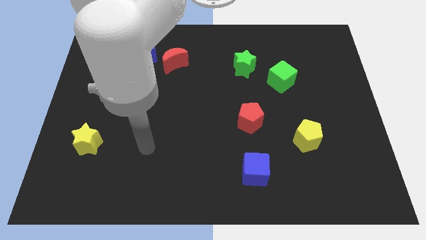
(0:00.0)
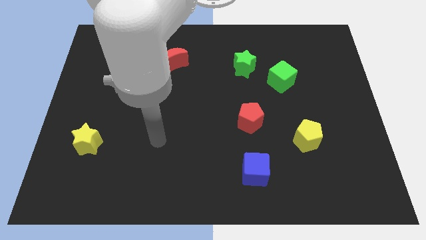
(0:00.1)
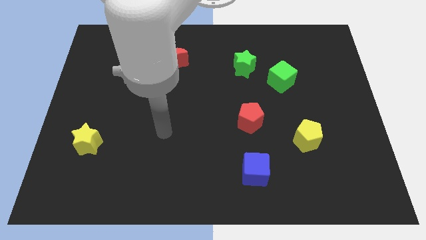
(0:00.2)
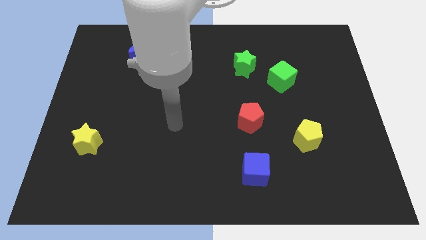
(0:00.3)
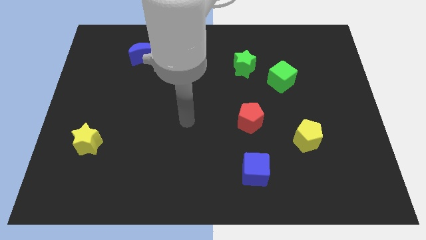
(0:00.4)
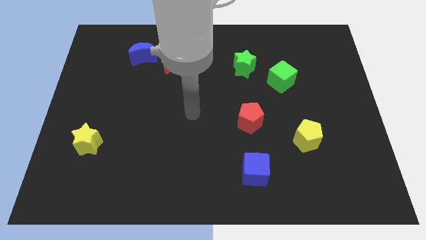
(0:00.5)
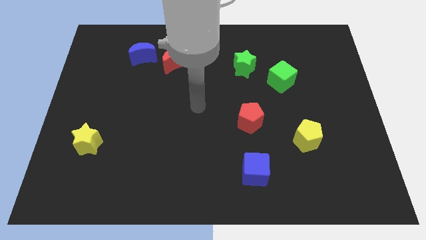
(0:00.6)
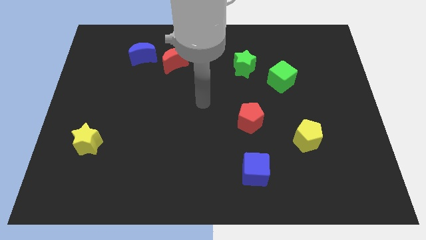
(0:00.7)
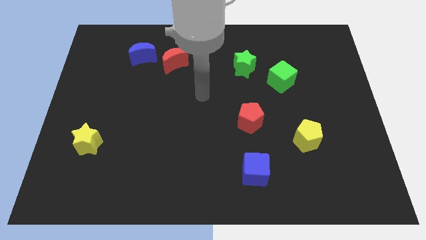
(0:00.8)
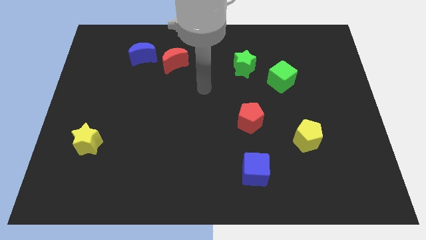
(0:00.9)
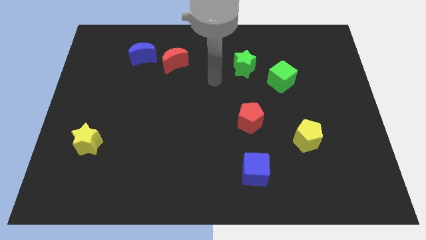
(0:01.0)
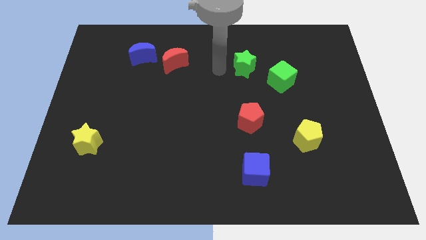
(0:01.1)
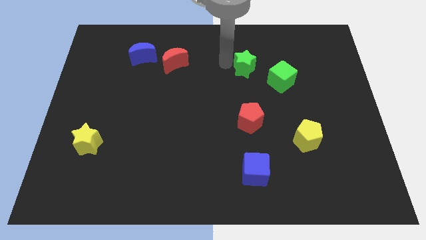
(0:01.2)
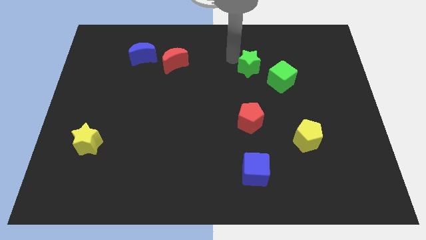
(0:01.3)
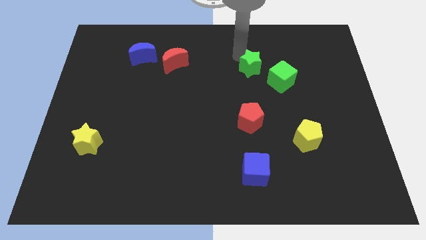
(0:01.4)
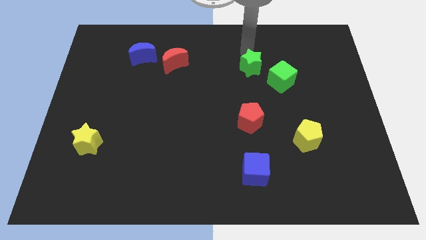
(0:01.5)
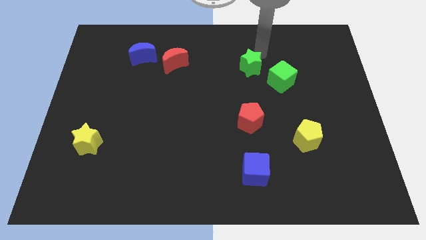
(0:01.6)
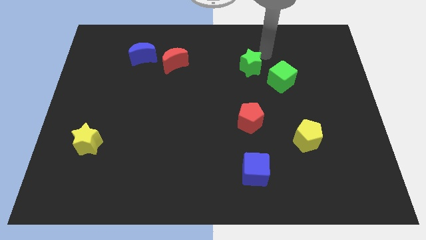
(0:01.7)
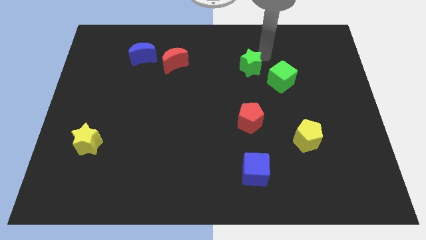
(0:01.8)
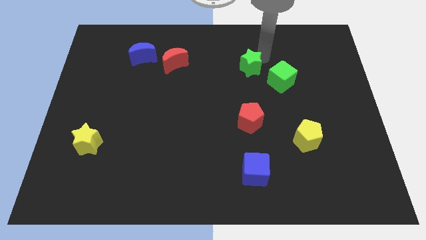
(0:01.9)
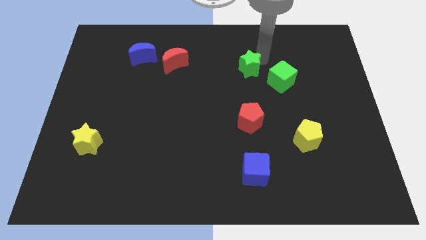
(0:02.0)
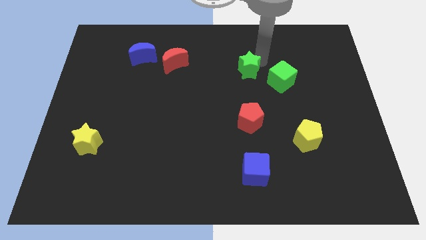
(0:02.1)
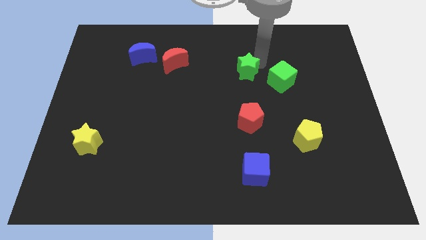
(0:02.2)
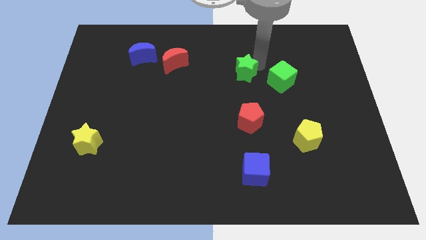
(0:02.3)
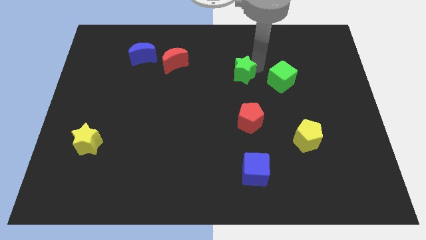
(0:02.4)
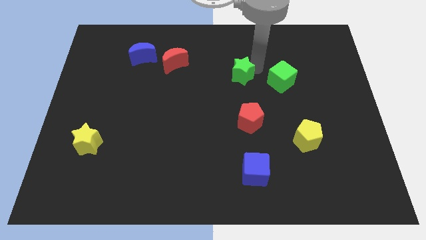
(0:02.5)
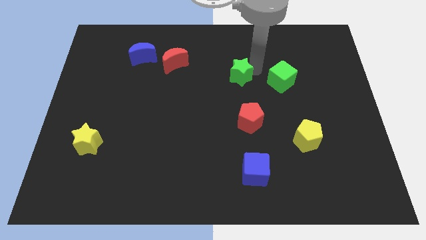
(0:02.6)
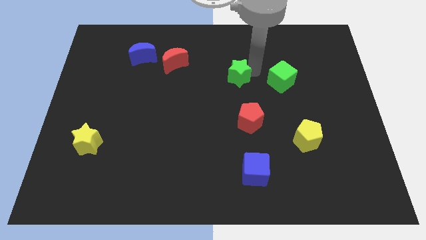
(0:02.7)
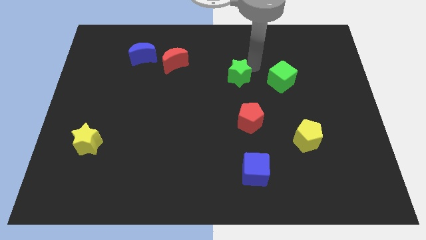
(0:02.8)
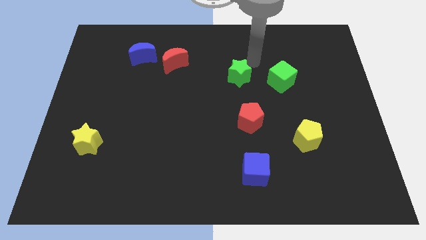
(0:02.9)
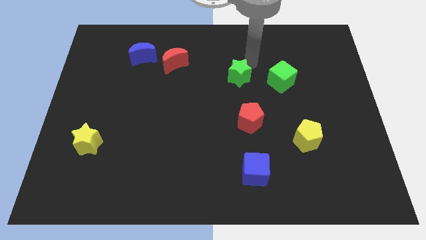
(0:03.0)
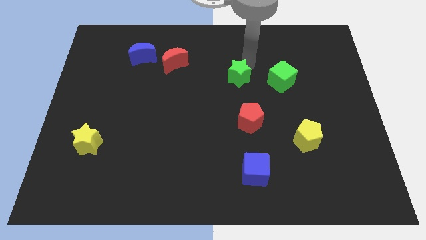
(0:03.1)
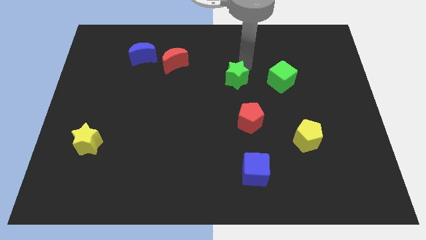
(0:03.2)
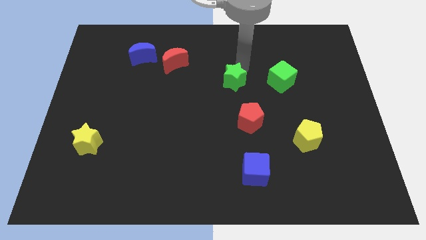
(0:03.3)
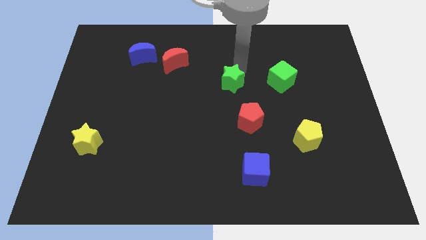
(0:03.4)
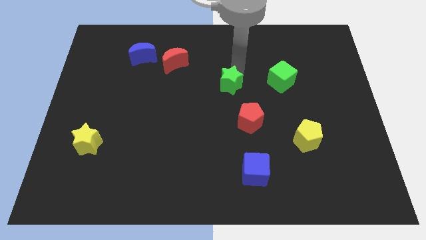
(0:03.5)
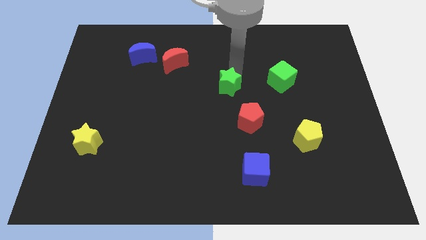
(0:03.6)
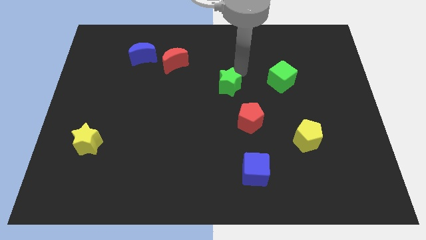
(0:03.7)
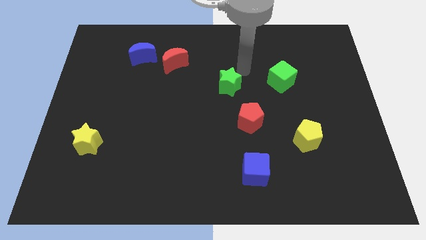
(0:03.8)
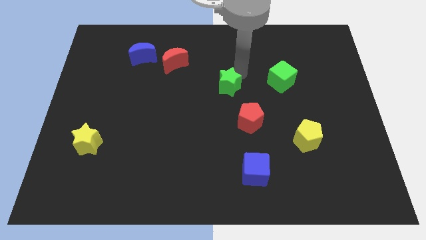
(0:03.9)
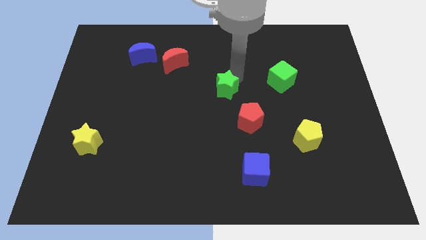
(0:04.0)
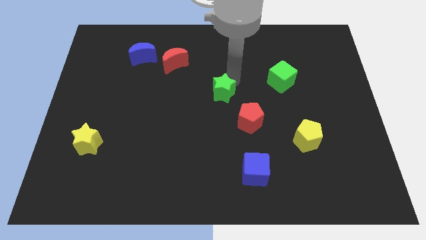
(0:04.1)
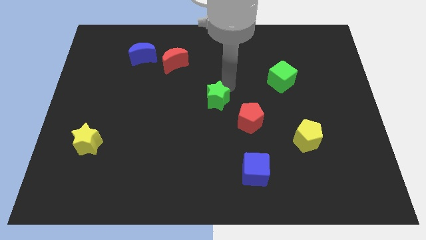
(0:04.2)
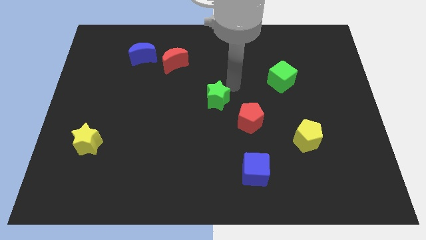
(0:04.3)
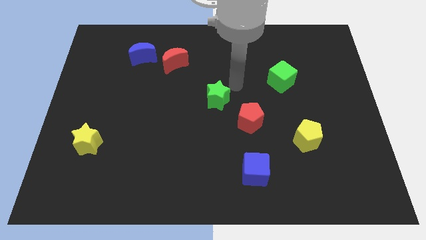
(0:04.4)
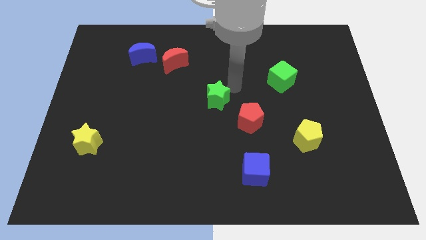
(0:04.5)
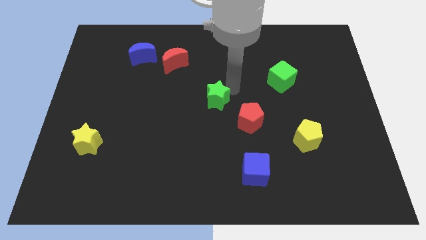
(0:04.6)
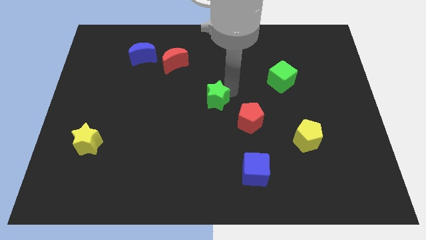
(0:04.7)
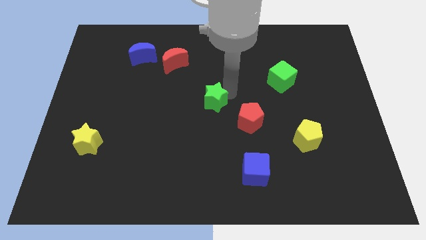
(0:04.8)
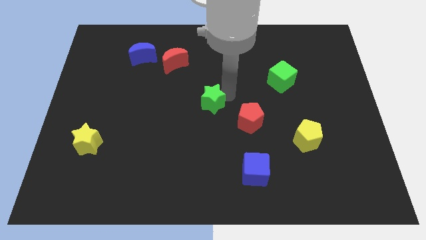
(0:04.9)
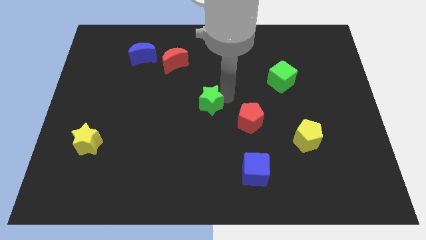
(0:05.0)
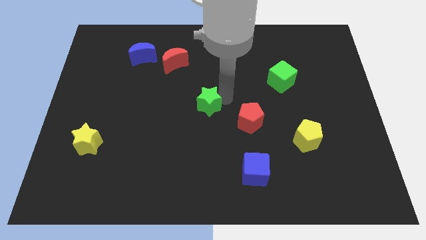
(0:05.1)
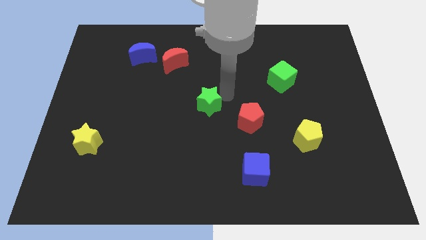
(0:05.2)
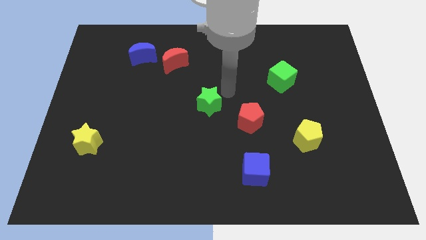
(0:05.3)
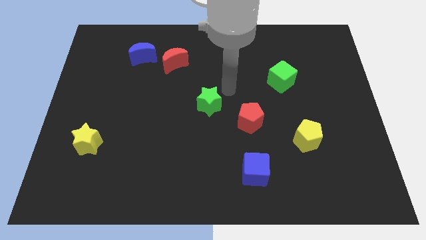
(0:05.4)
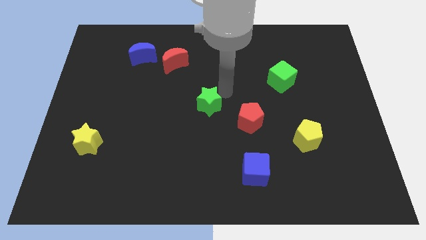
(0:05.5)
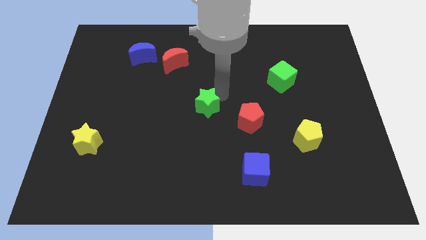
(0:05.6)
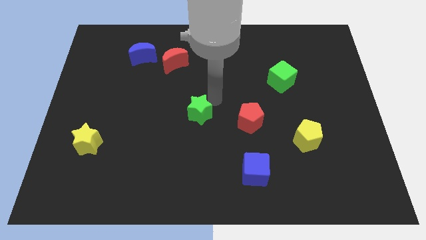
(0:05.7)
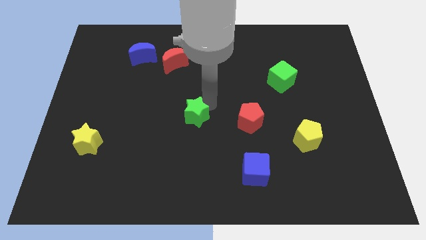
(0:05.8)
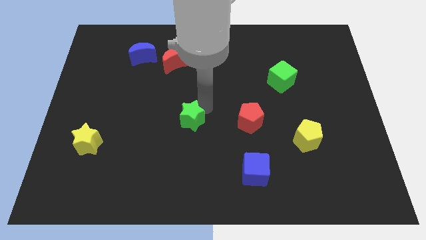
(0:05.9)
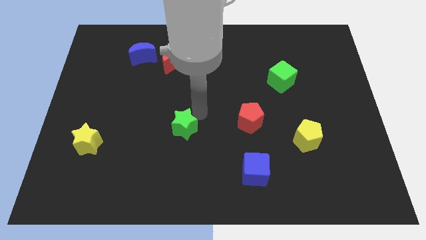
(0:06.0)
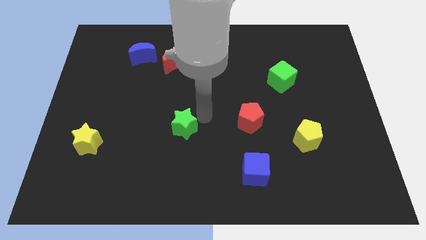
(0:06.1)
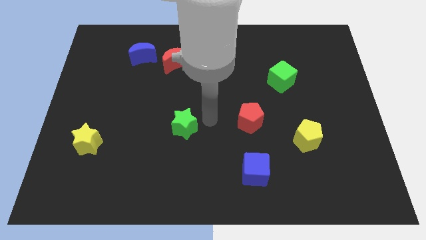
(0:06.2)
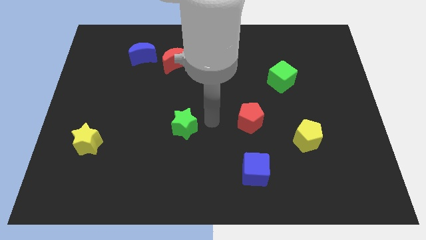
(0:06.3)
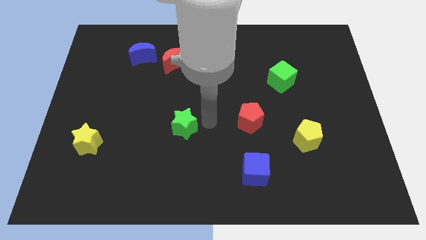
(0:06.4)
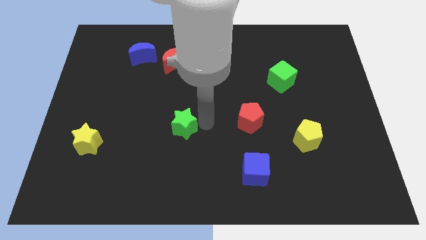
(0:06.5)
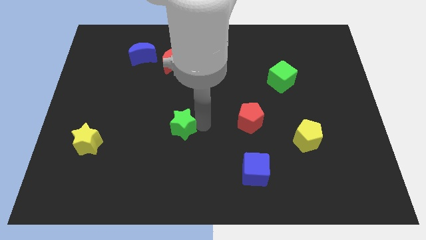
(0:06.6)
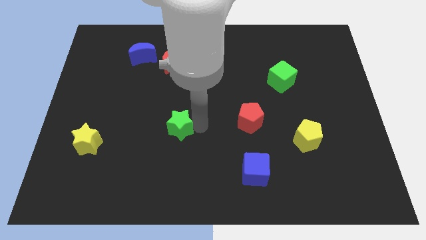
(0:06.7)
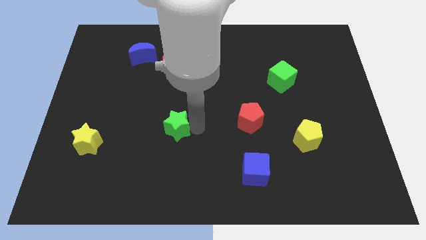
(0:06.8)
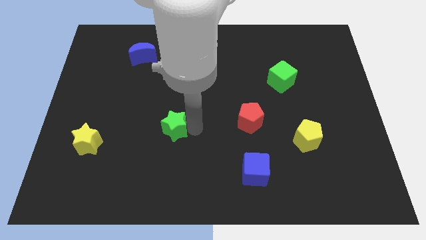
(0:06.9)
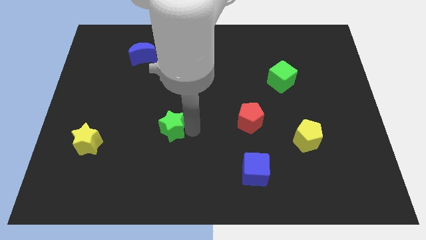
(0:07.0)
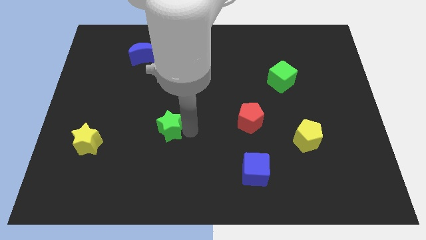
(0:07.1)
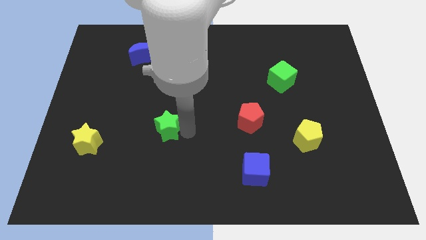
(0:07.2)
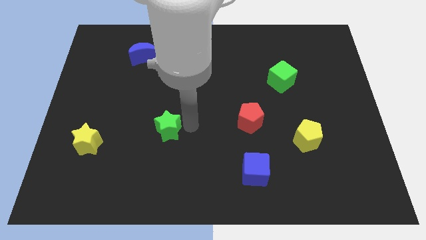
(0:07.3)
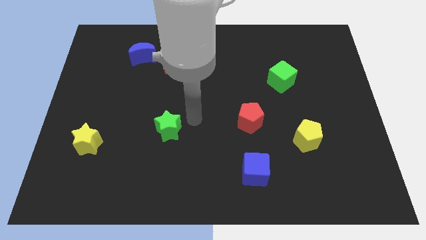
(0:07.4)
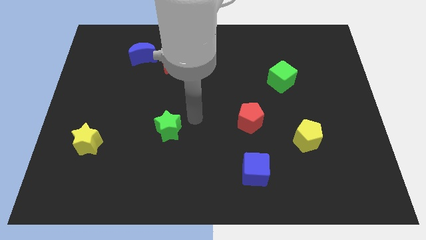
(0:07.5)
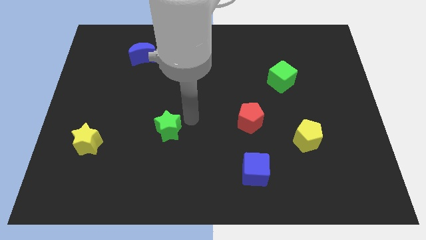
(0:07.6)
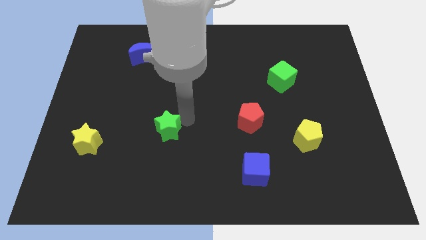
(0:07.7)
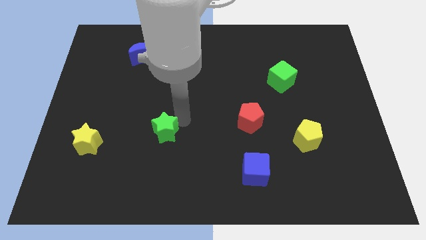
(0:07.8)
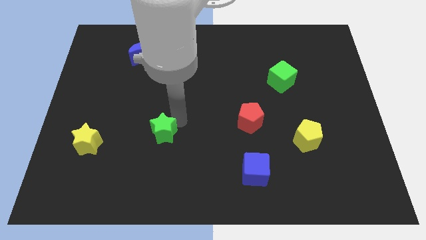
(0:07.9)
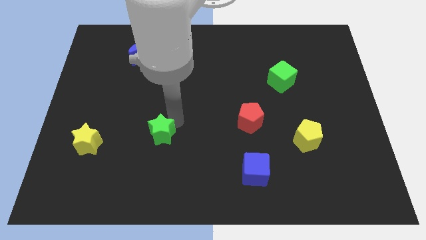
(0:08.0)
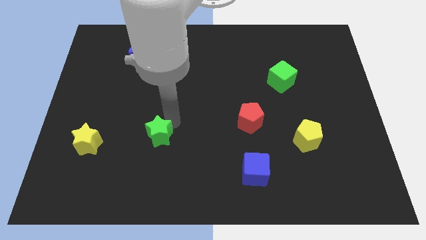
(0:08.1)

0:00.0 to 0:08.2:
slide the green star to the right side of the yellow star
